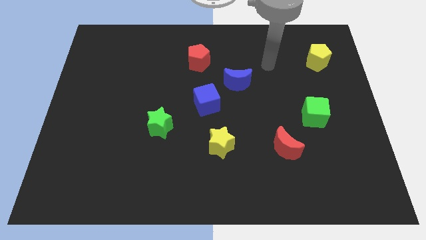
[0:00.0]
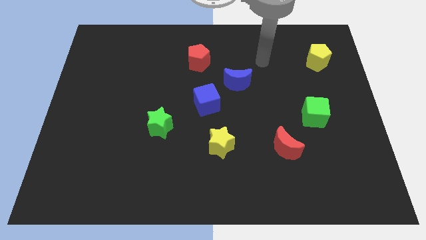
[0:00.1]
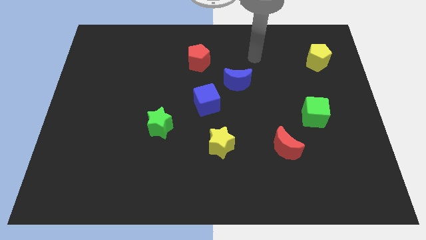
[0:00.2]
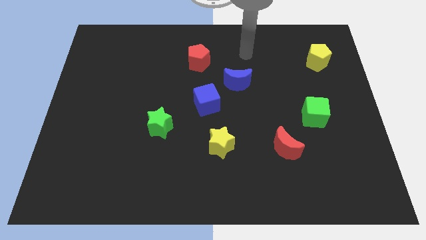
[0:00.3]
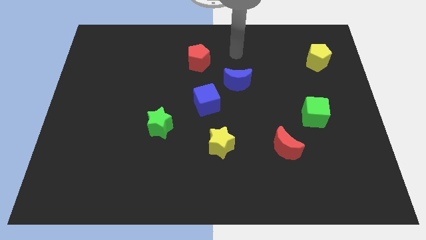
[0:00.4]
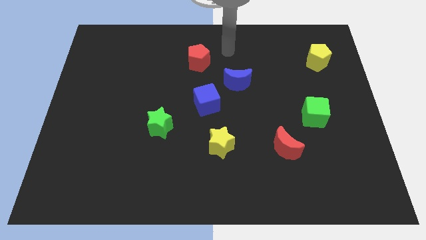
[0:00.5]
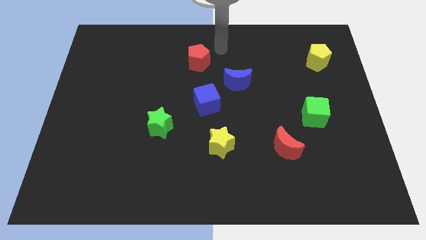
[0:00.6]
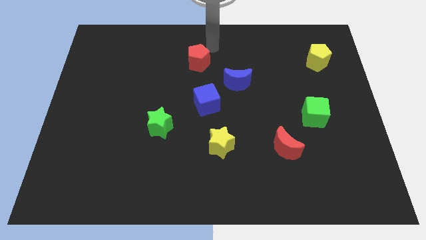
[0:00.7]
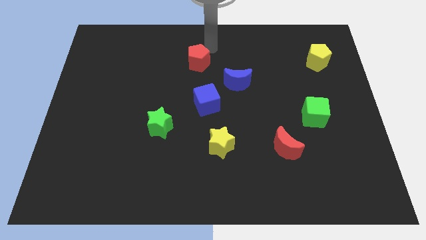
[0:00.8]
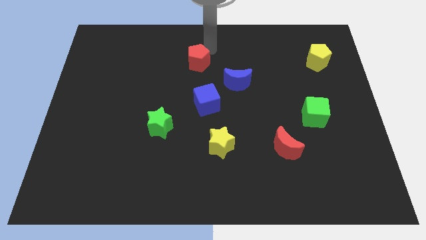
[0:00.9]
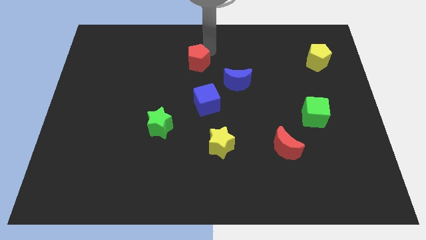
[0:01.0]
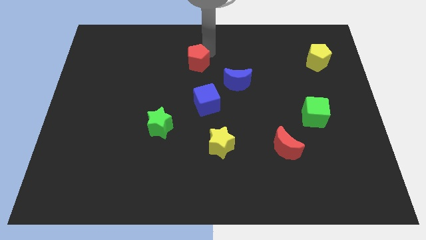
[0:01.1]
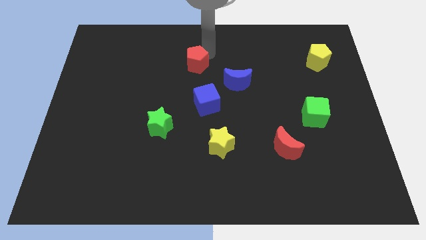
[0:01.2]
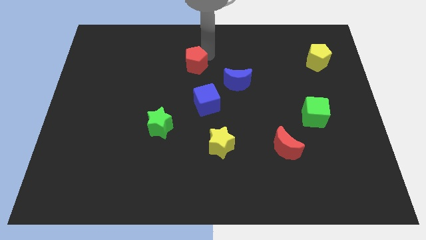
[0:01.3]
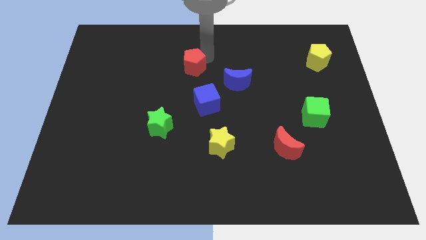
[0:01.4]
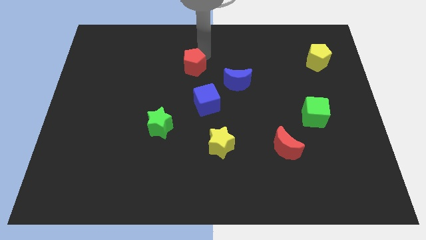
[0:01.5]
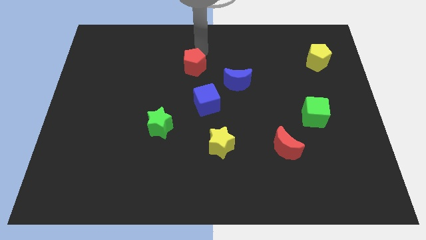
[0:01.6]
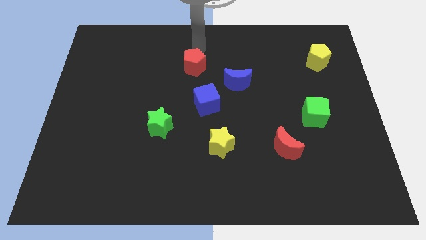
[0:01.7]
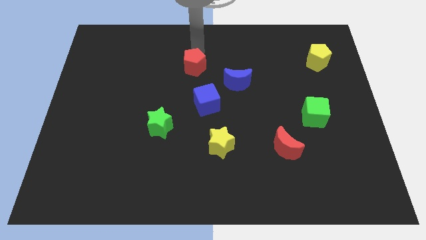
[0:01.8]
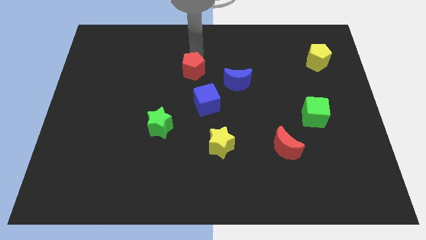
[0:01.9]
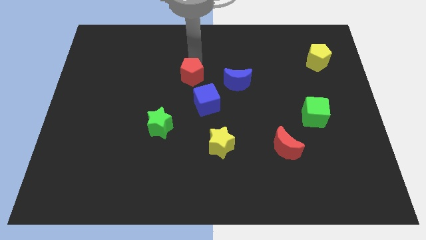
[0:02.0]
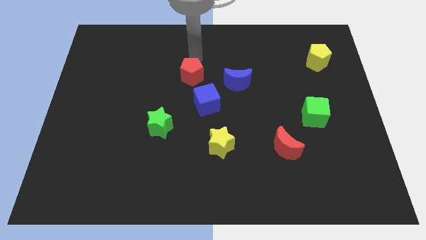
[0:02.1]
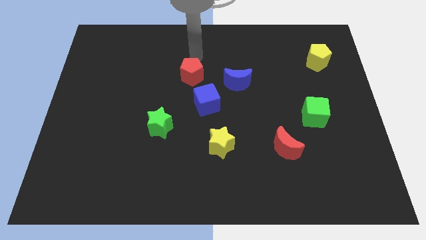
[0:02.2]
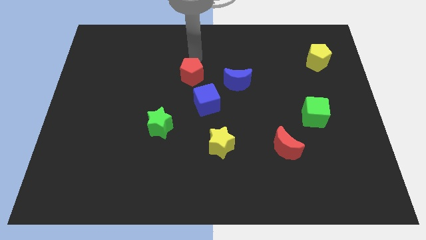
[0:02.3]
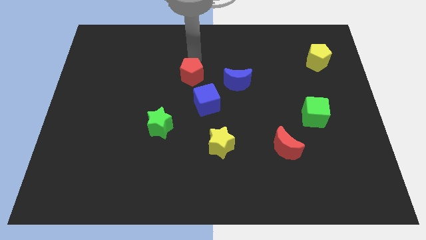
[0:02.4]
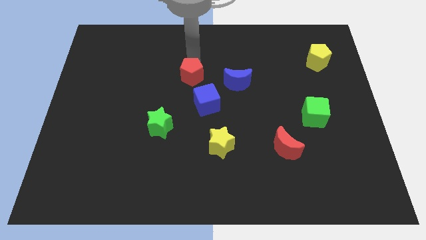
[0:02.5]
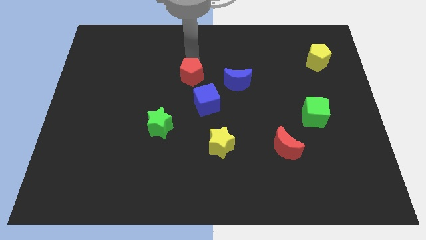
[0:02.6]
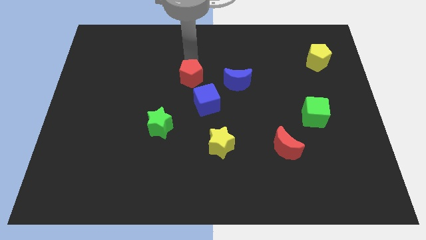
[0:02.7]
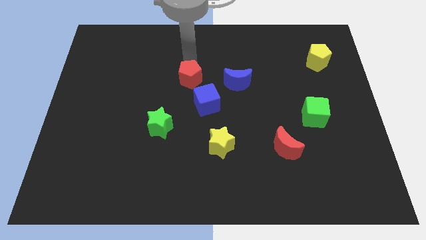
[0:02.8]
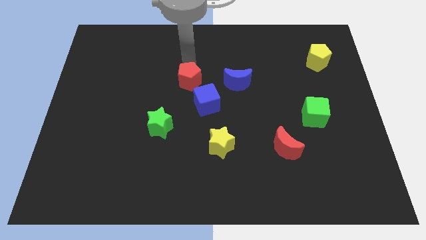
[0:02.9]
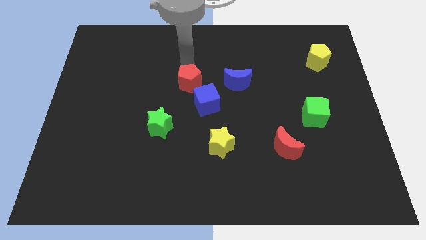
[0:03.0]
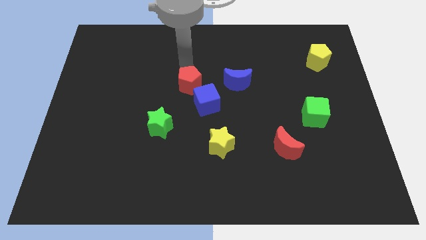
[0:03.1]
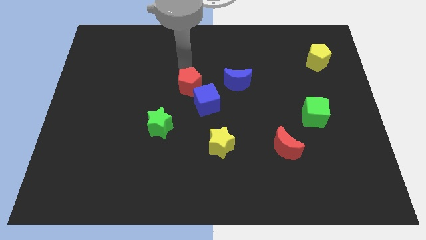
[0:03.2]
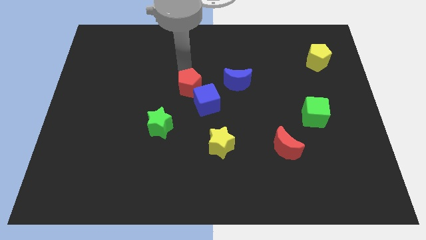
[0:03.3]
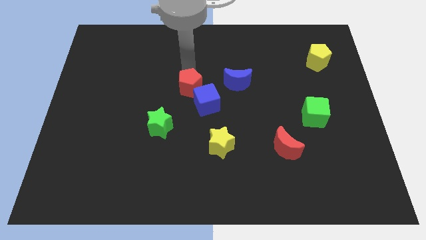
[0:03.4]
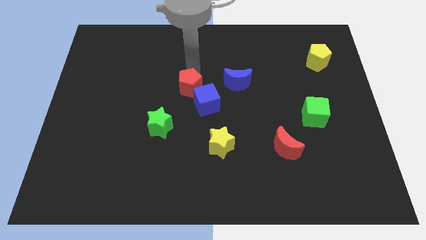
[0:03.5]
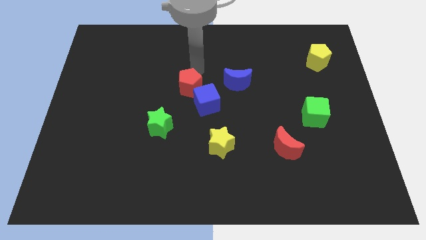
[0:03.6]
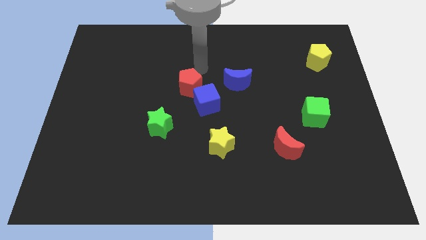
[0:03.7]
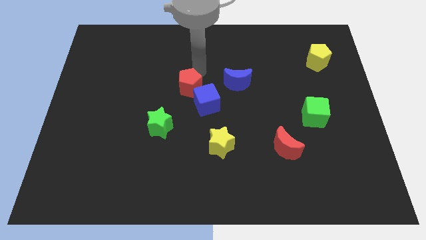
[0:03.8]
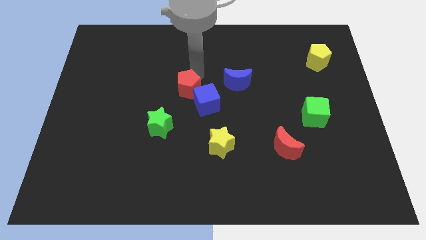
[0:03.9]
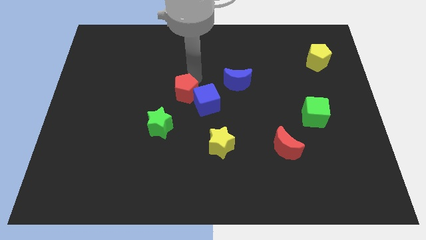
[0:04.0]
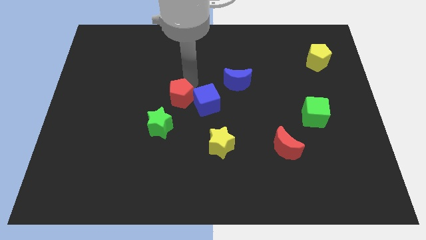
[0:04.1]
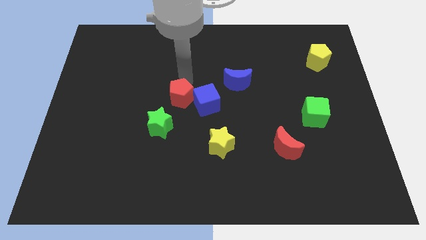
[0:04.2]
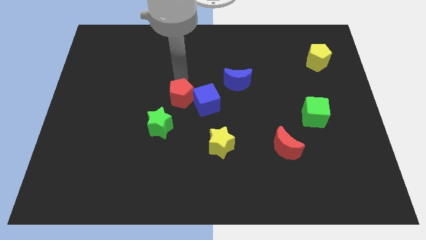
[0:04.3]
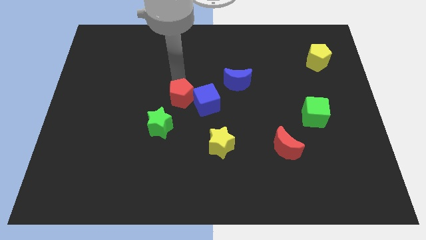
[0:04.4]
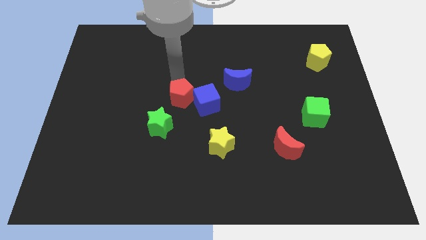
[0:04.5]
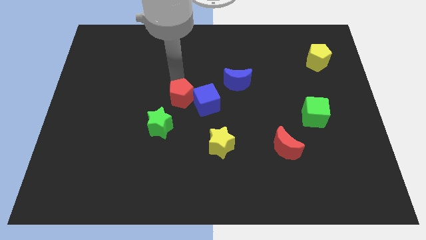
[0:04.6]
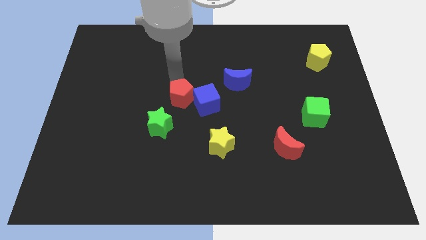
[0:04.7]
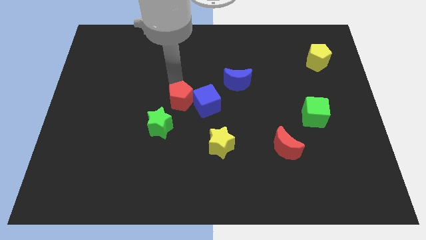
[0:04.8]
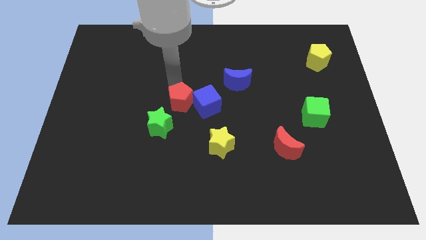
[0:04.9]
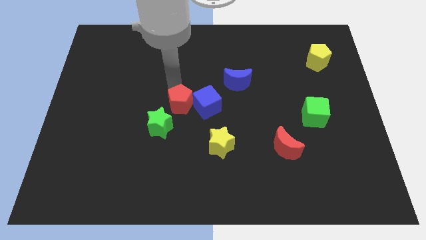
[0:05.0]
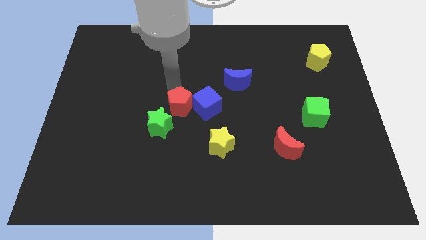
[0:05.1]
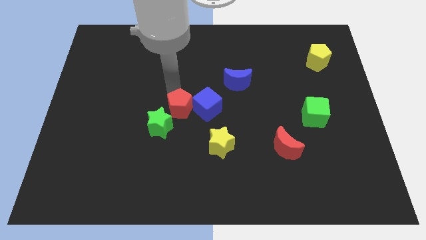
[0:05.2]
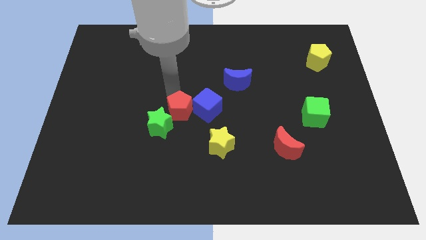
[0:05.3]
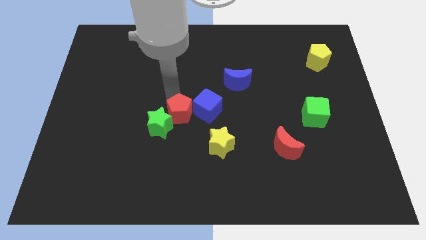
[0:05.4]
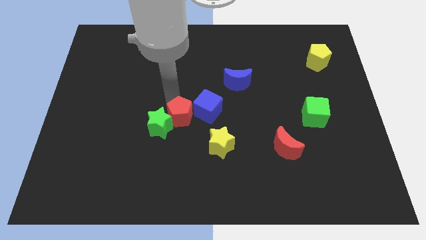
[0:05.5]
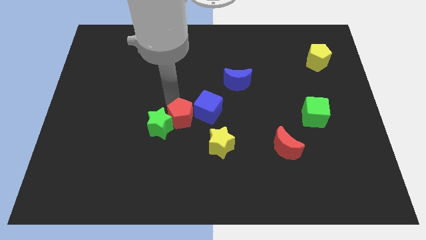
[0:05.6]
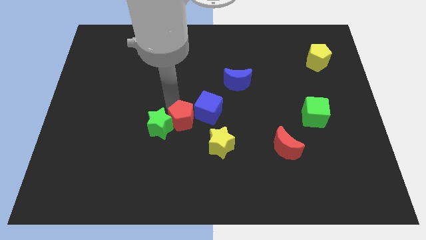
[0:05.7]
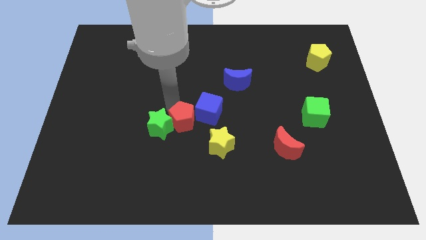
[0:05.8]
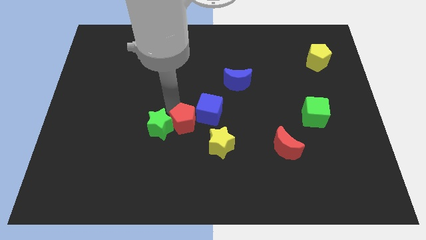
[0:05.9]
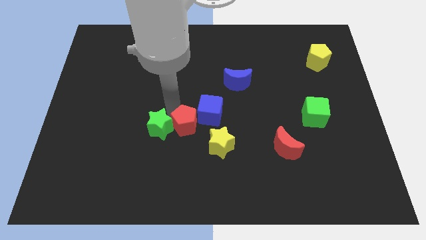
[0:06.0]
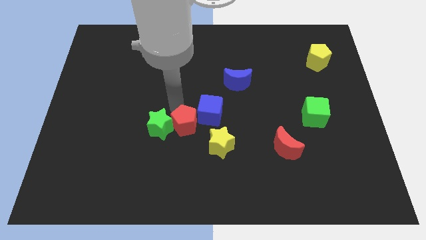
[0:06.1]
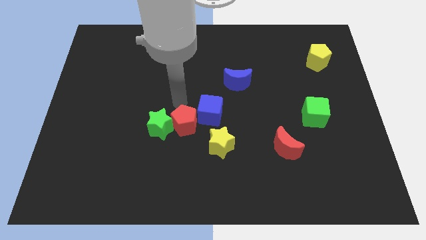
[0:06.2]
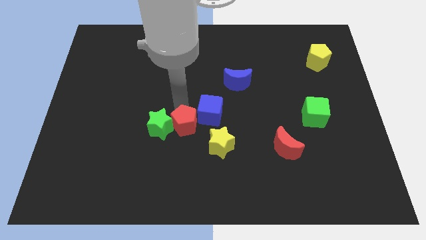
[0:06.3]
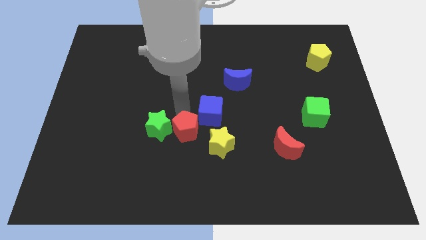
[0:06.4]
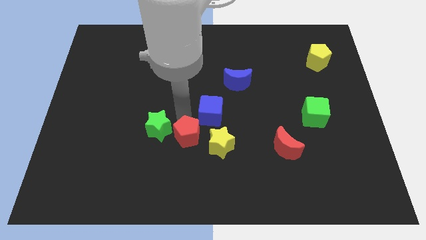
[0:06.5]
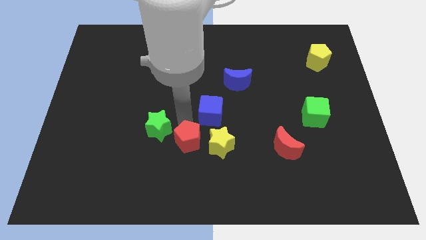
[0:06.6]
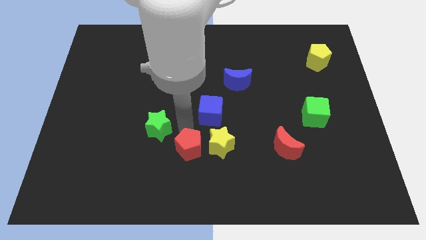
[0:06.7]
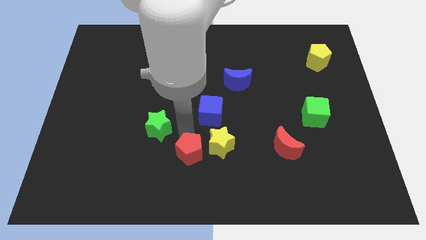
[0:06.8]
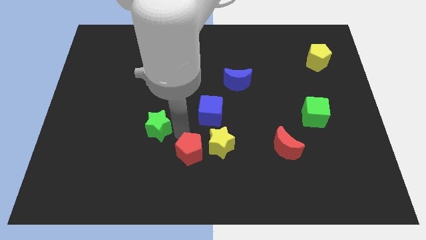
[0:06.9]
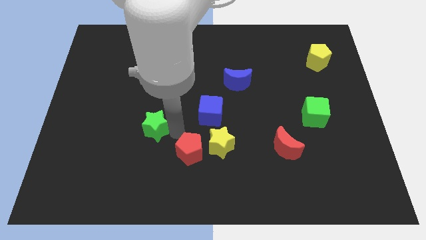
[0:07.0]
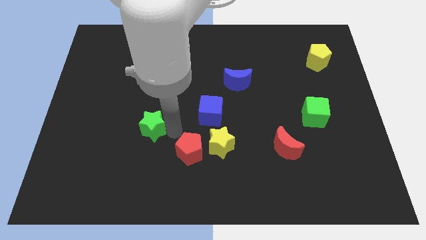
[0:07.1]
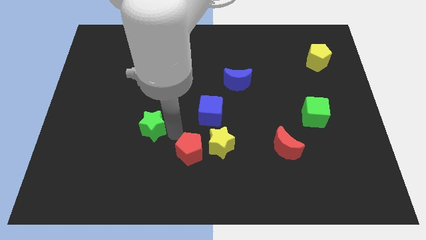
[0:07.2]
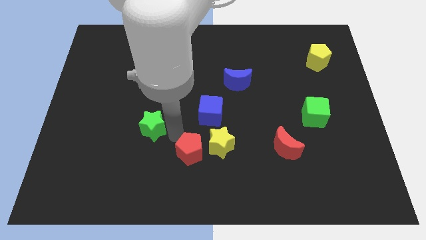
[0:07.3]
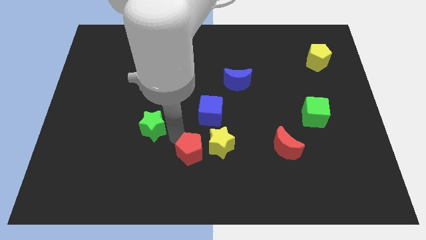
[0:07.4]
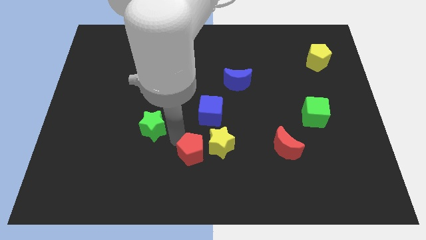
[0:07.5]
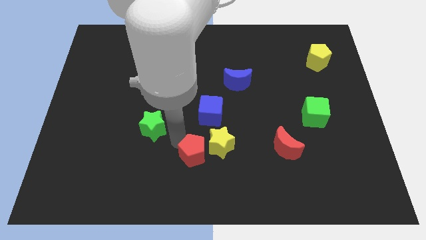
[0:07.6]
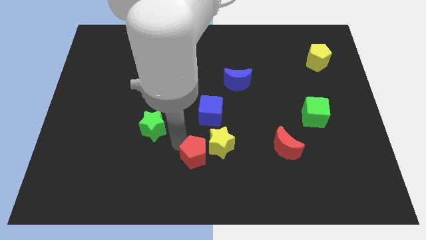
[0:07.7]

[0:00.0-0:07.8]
move the red pentagon to the bottom
